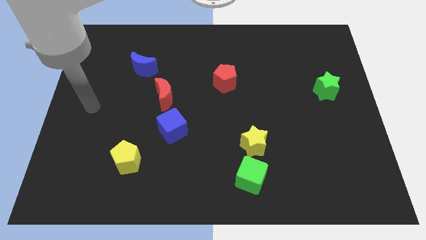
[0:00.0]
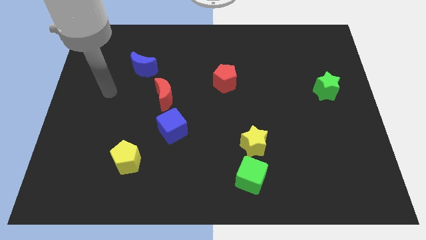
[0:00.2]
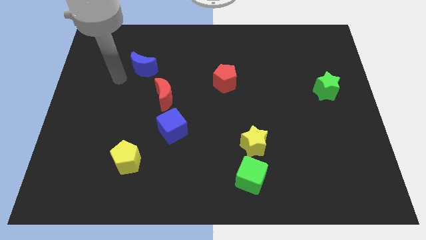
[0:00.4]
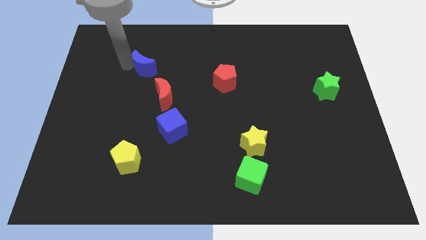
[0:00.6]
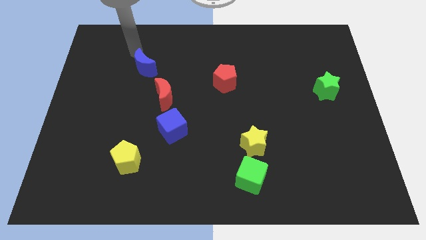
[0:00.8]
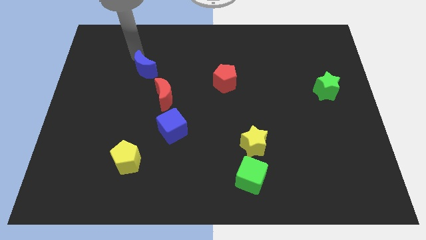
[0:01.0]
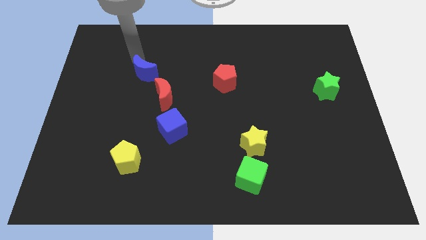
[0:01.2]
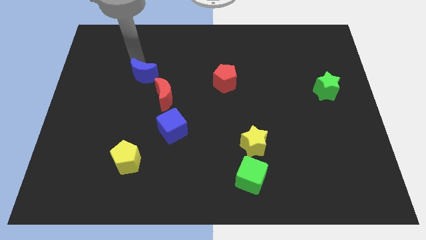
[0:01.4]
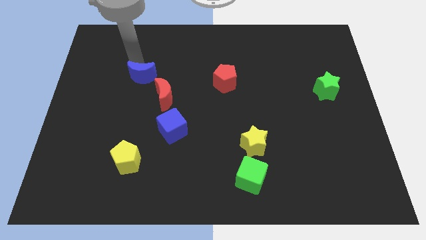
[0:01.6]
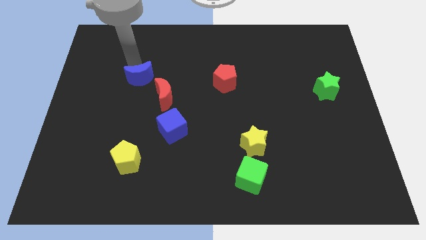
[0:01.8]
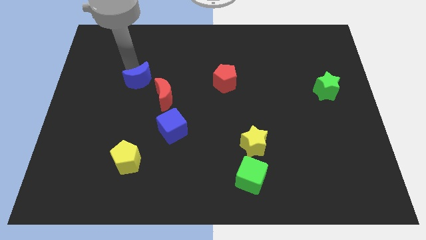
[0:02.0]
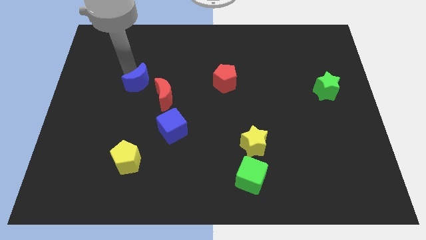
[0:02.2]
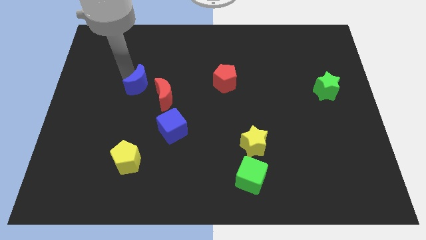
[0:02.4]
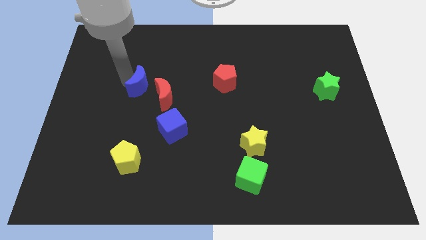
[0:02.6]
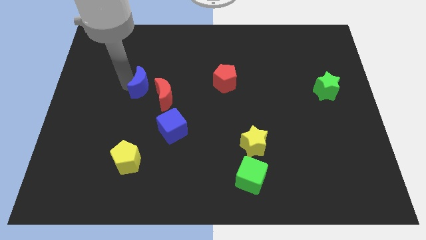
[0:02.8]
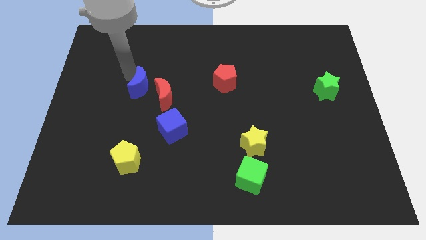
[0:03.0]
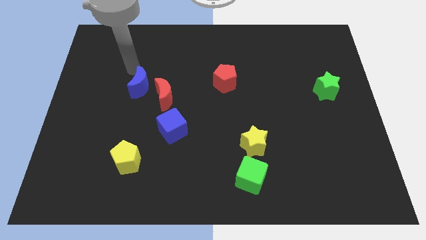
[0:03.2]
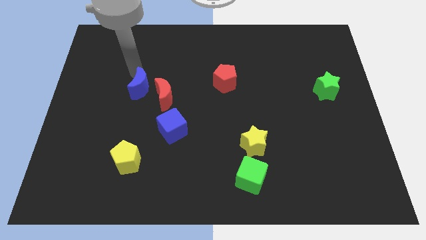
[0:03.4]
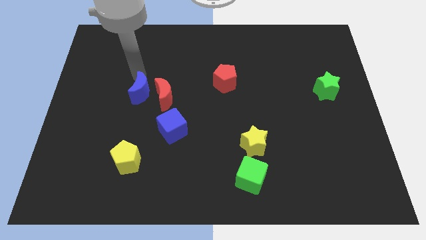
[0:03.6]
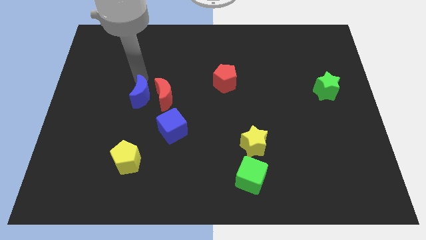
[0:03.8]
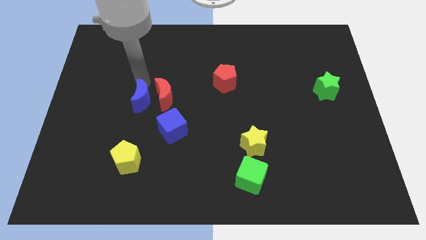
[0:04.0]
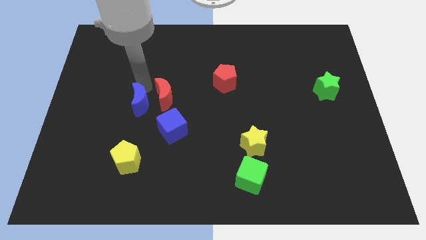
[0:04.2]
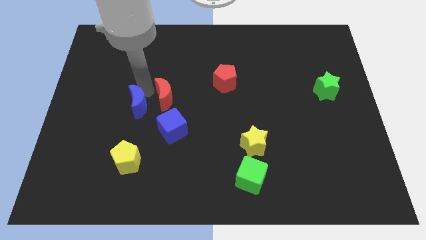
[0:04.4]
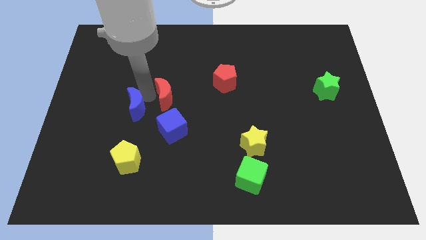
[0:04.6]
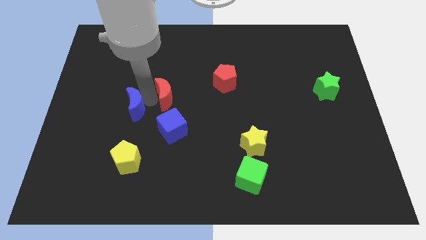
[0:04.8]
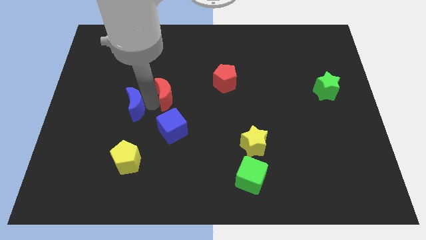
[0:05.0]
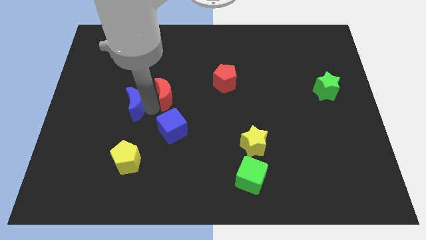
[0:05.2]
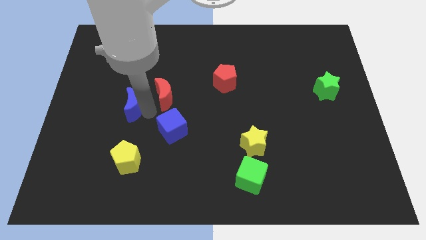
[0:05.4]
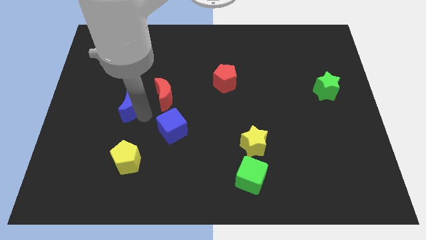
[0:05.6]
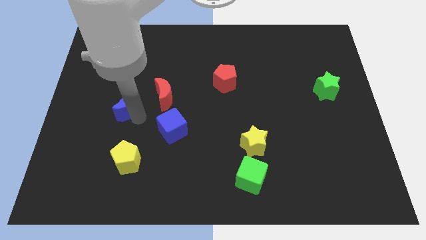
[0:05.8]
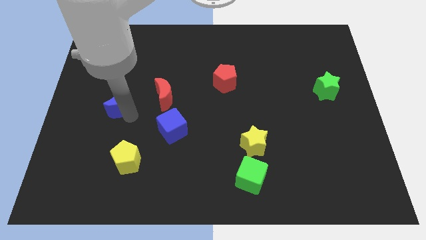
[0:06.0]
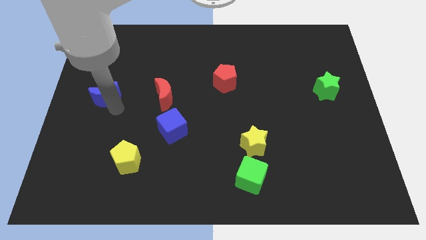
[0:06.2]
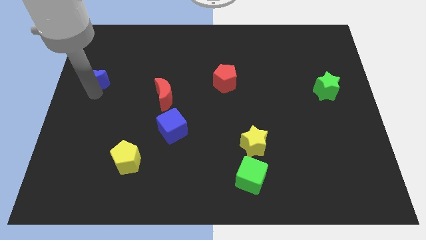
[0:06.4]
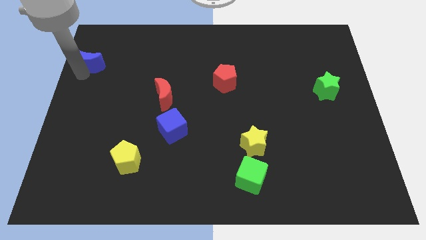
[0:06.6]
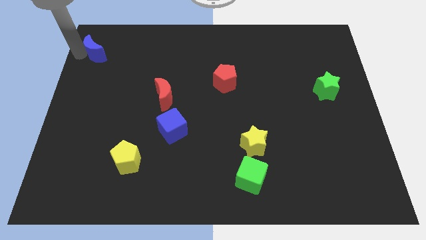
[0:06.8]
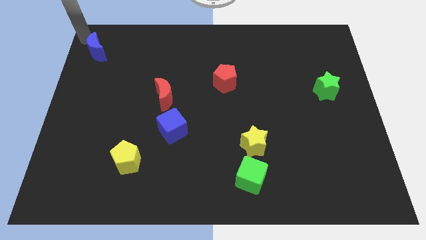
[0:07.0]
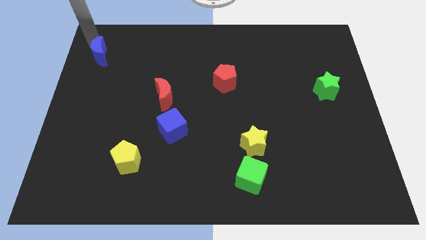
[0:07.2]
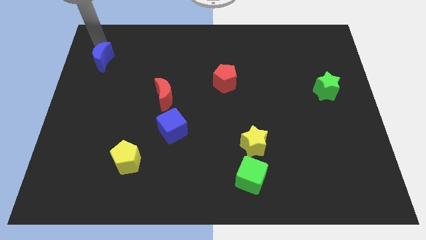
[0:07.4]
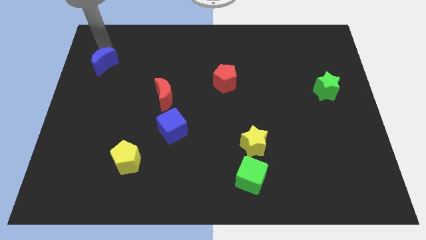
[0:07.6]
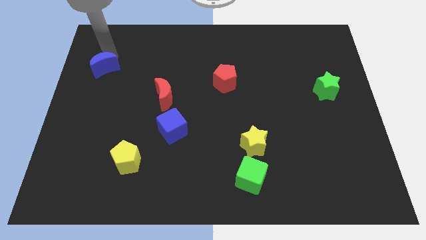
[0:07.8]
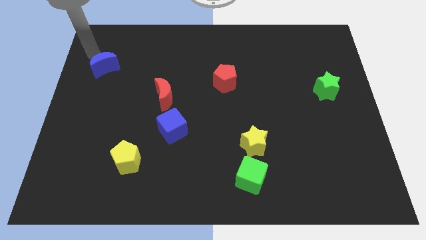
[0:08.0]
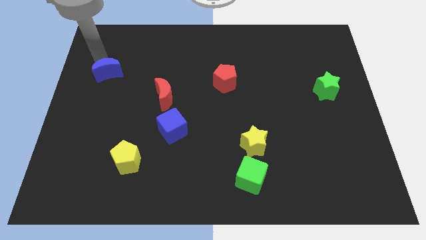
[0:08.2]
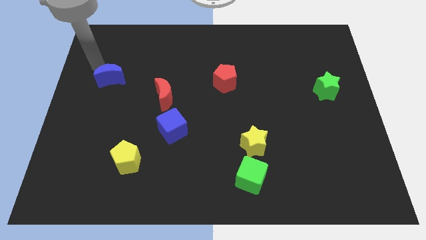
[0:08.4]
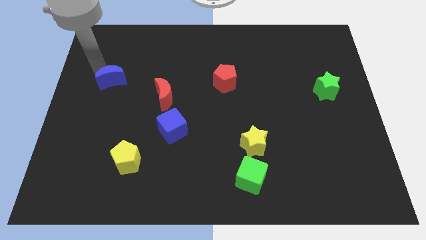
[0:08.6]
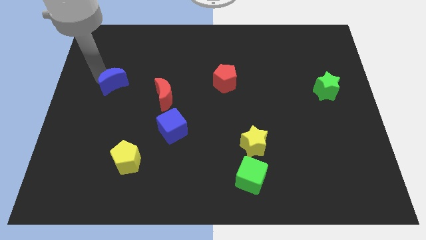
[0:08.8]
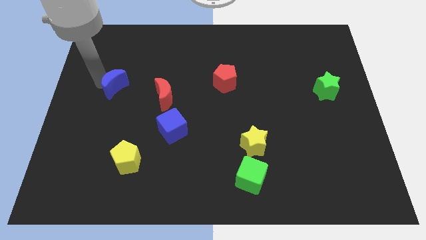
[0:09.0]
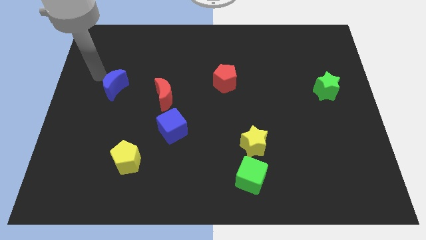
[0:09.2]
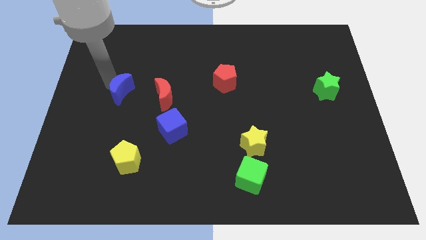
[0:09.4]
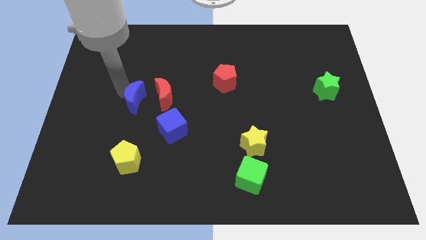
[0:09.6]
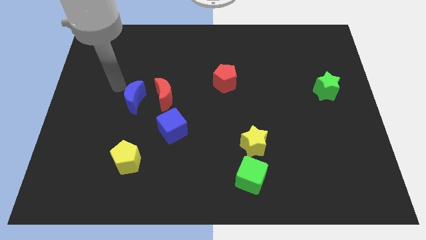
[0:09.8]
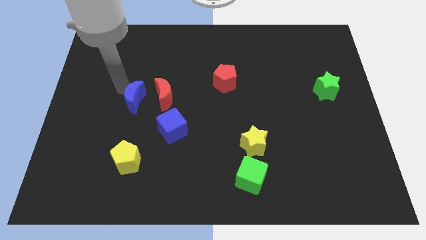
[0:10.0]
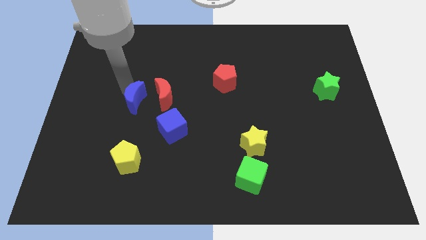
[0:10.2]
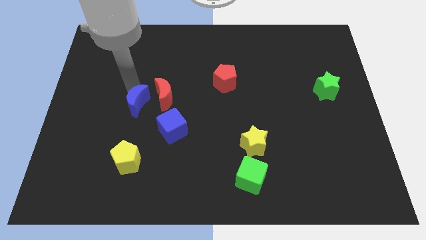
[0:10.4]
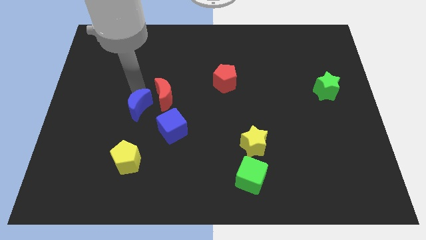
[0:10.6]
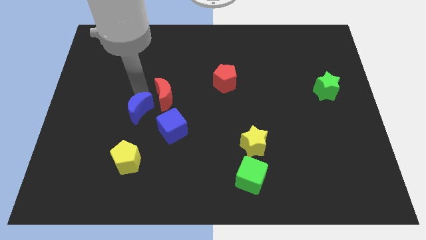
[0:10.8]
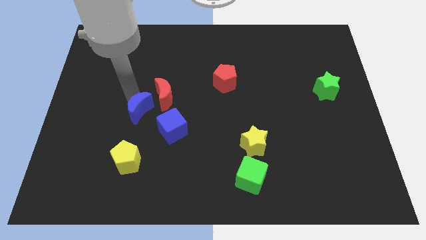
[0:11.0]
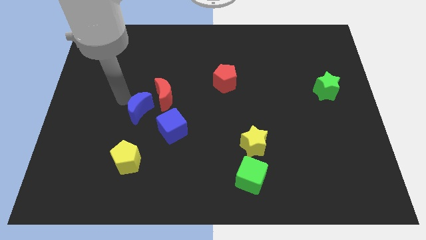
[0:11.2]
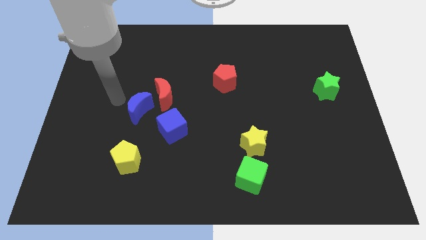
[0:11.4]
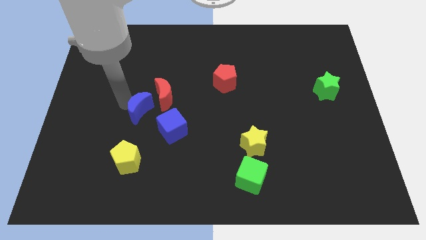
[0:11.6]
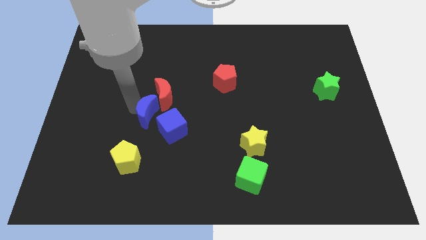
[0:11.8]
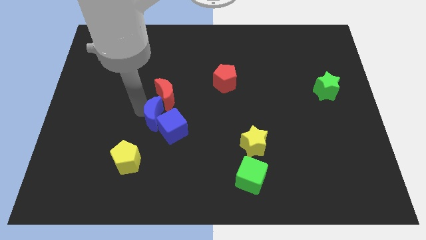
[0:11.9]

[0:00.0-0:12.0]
move the blue moon next to the blue cube

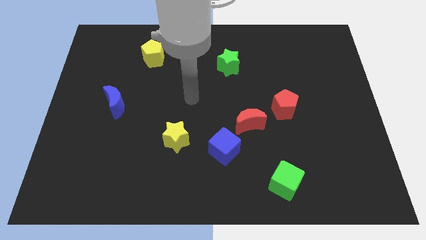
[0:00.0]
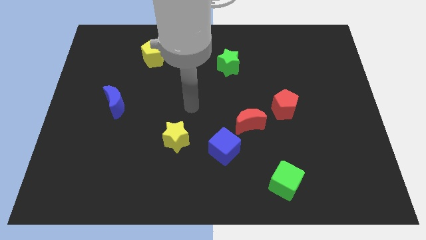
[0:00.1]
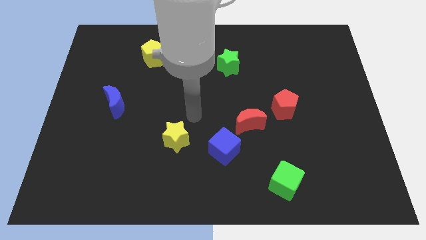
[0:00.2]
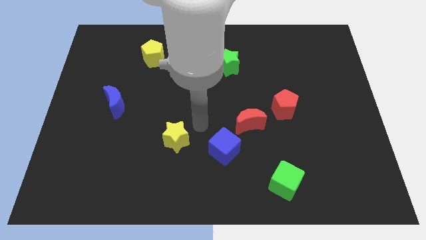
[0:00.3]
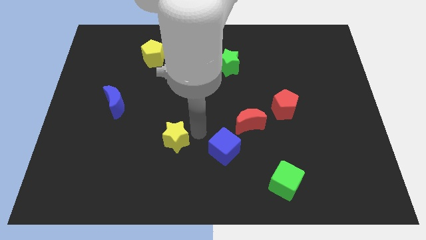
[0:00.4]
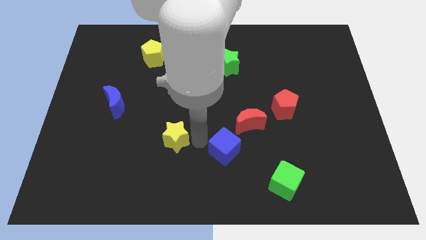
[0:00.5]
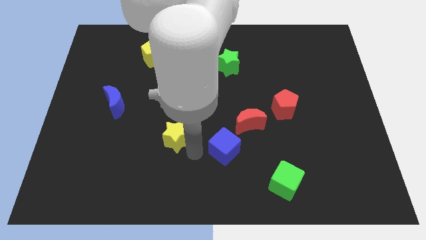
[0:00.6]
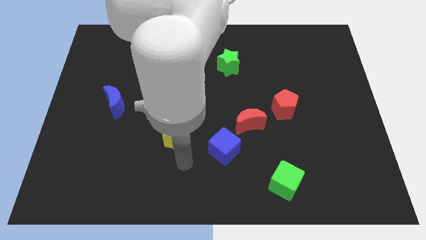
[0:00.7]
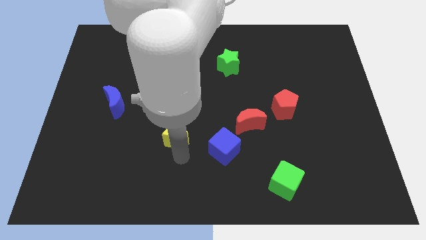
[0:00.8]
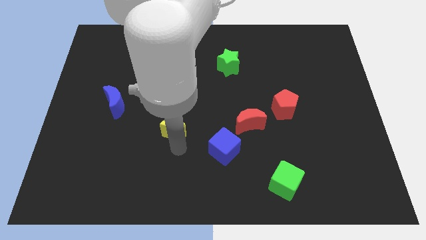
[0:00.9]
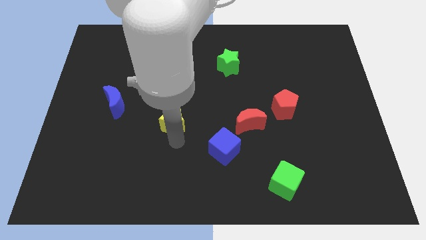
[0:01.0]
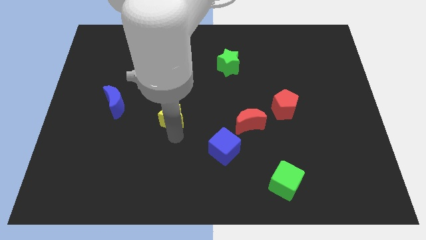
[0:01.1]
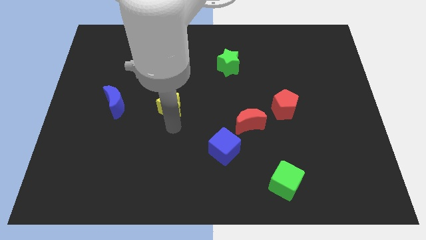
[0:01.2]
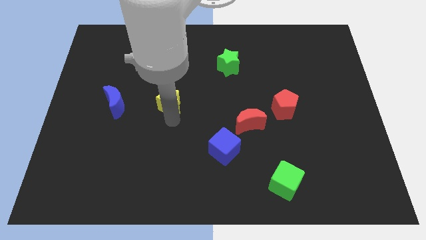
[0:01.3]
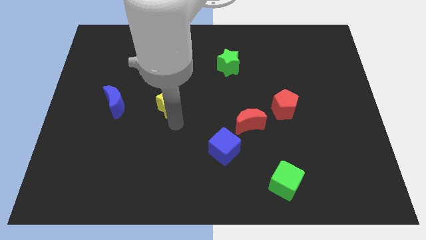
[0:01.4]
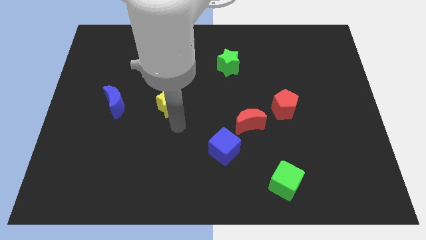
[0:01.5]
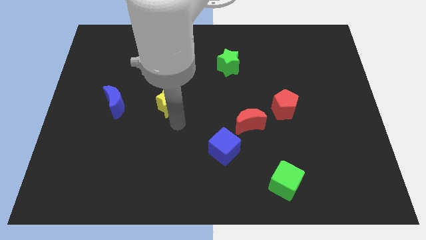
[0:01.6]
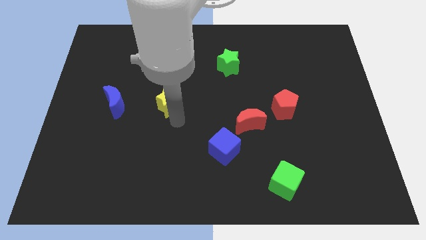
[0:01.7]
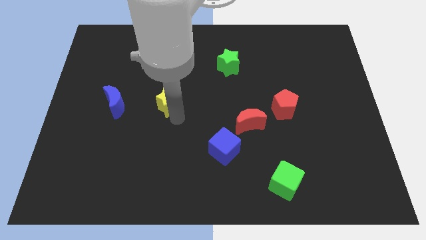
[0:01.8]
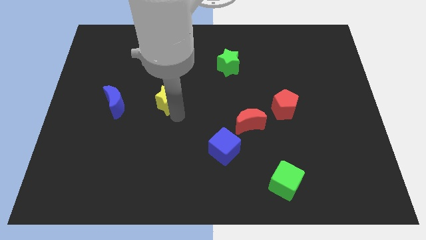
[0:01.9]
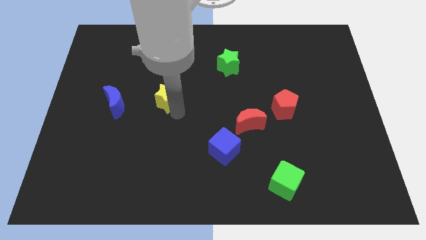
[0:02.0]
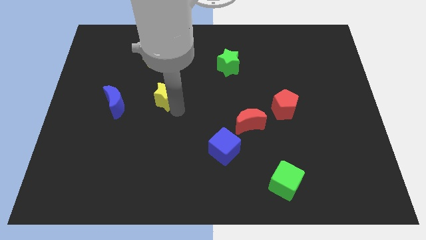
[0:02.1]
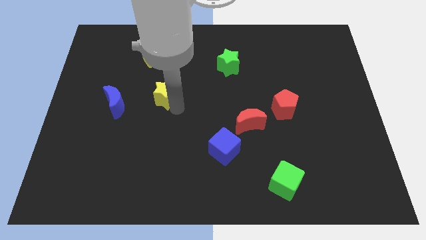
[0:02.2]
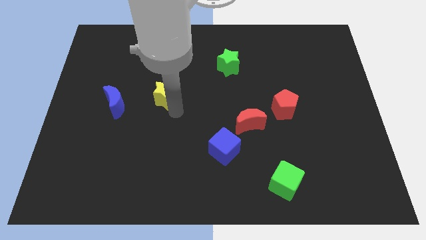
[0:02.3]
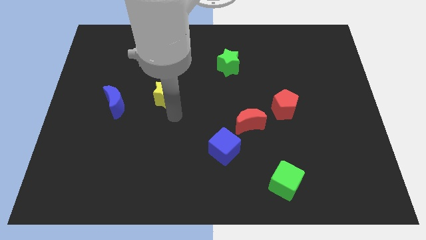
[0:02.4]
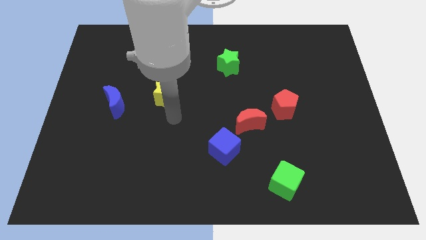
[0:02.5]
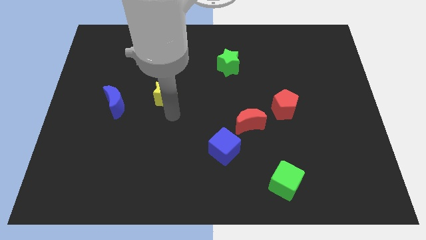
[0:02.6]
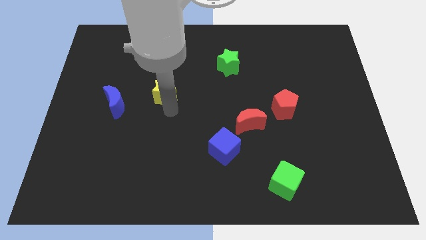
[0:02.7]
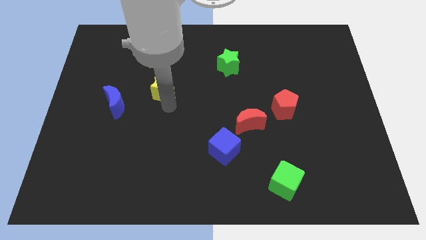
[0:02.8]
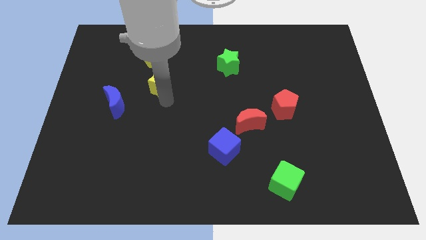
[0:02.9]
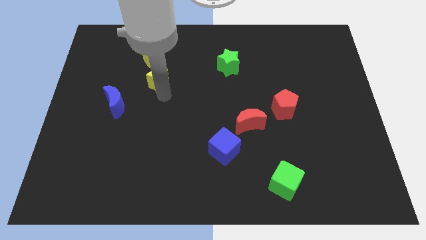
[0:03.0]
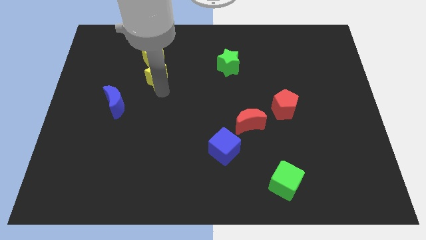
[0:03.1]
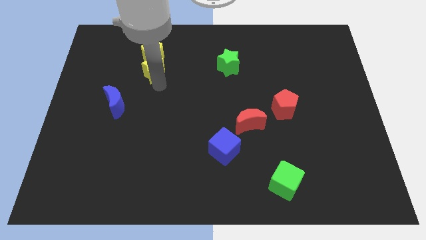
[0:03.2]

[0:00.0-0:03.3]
push the yellow star next to the yellow pentagon
